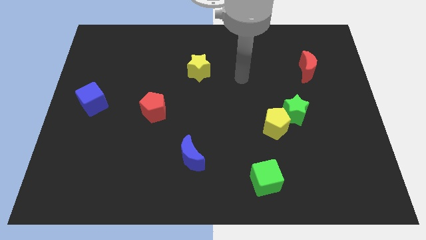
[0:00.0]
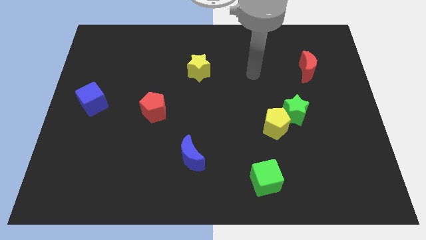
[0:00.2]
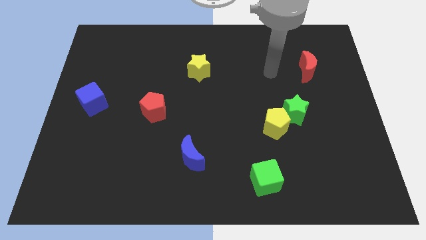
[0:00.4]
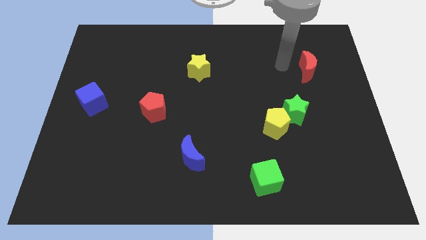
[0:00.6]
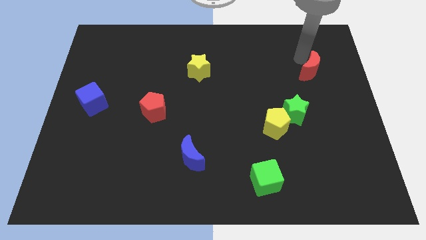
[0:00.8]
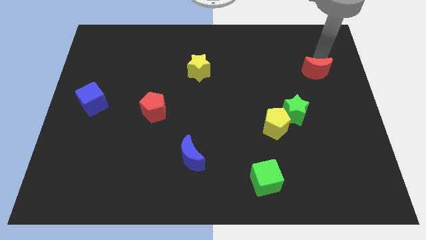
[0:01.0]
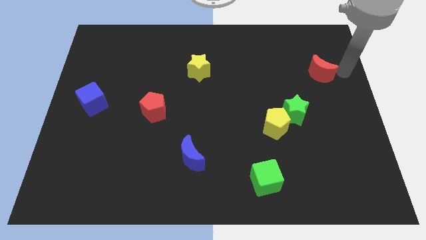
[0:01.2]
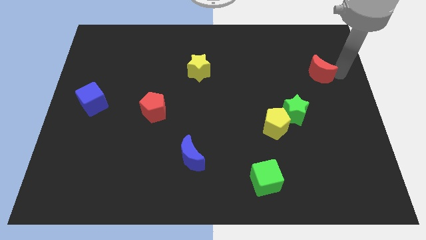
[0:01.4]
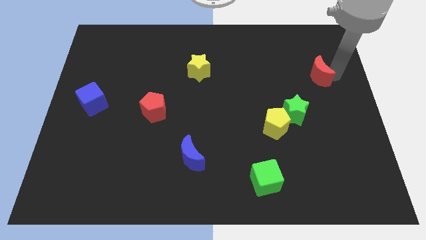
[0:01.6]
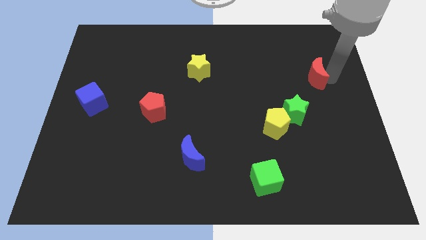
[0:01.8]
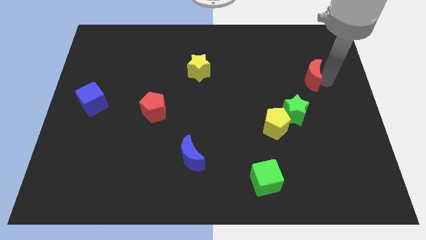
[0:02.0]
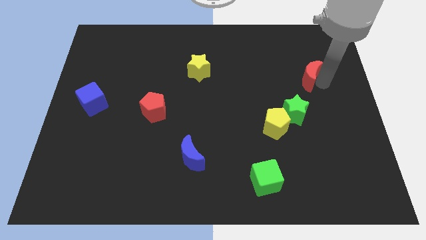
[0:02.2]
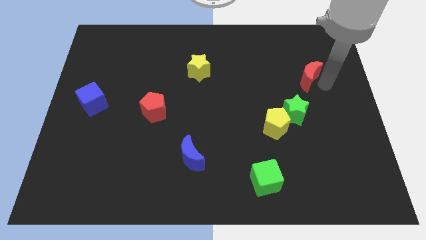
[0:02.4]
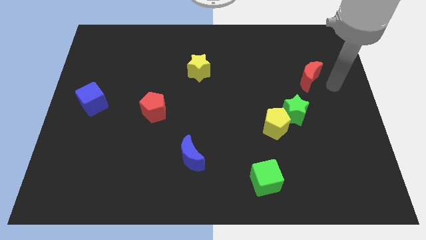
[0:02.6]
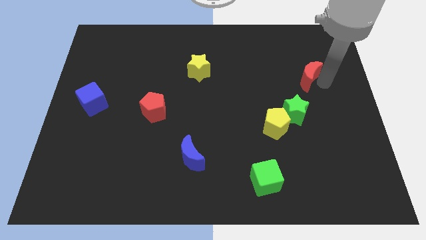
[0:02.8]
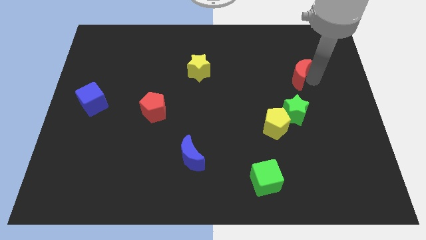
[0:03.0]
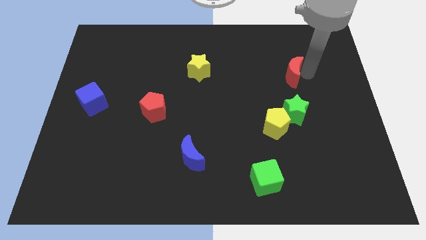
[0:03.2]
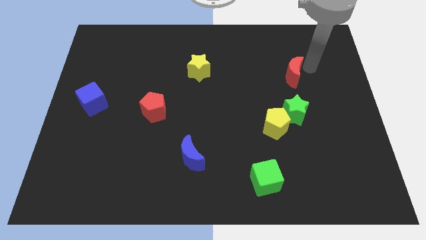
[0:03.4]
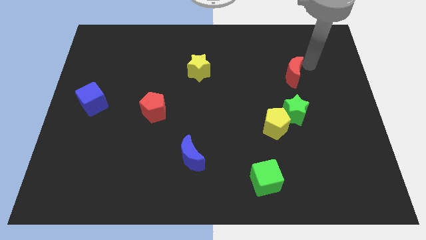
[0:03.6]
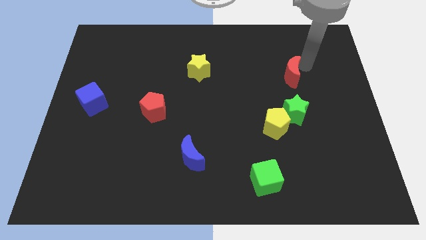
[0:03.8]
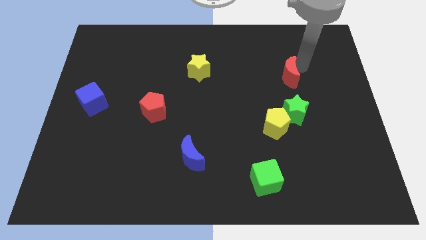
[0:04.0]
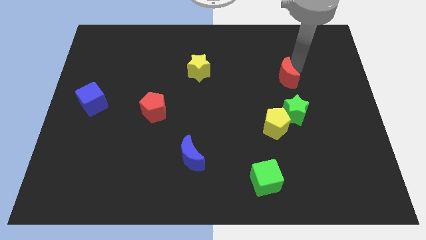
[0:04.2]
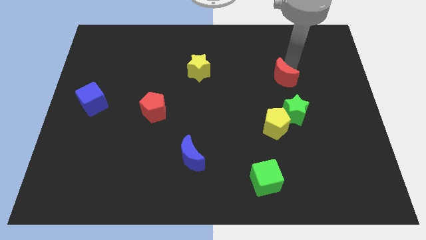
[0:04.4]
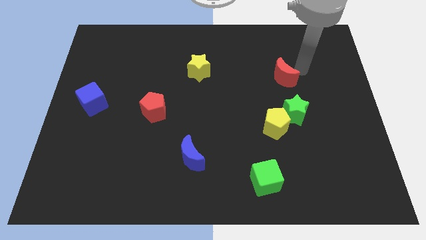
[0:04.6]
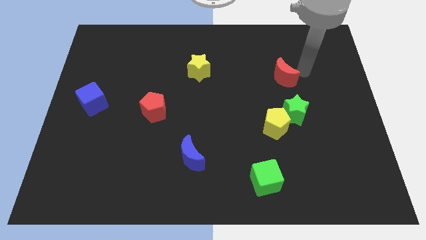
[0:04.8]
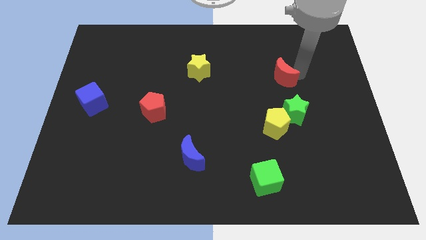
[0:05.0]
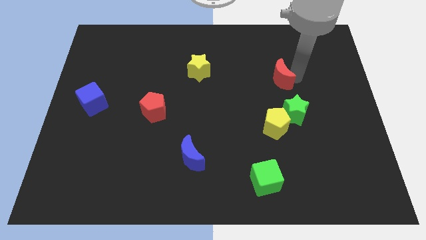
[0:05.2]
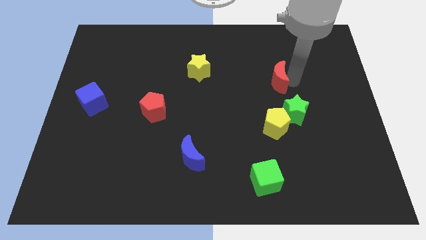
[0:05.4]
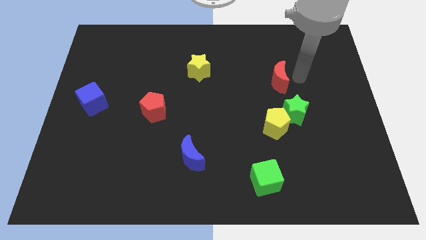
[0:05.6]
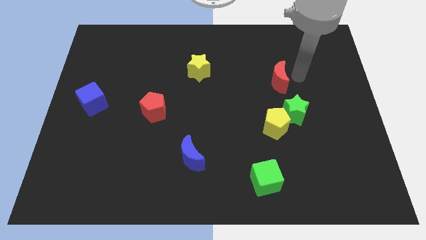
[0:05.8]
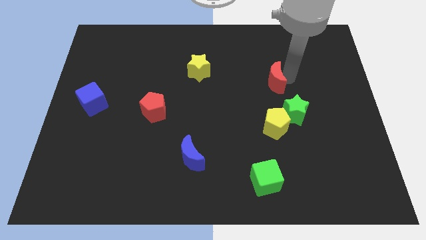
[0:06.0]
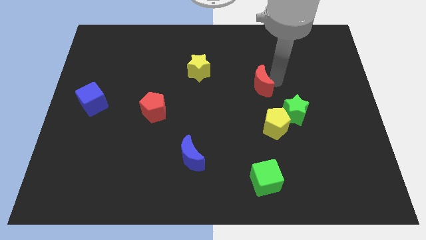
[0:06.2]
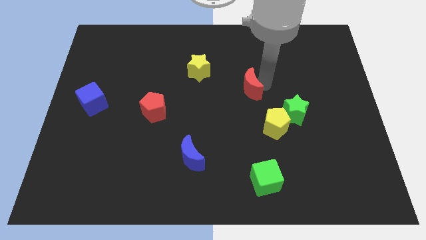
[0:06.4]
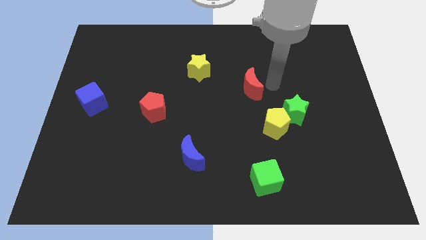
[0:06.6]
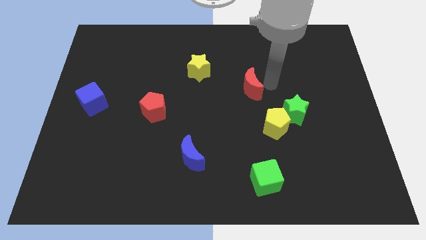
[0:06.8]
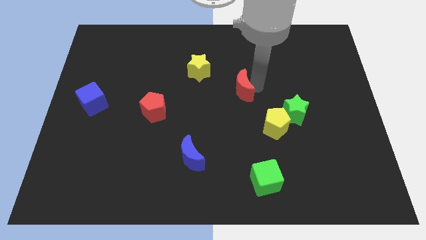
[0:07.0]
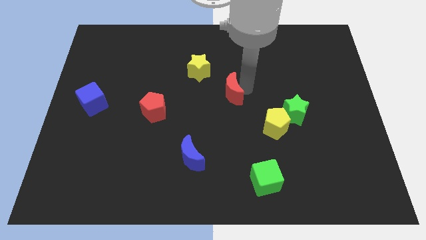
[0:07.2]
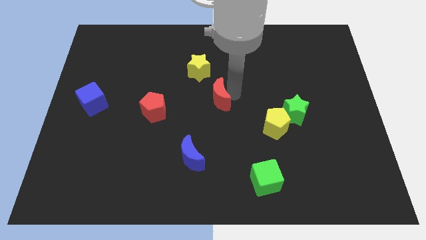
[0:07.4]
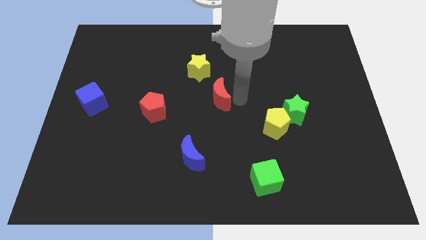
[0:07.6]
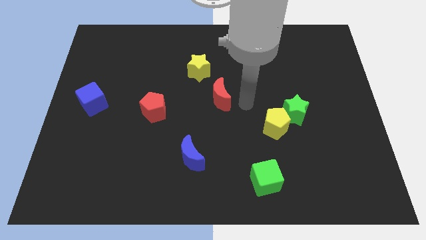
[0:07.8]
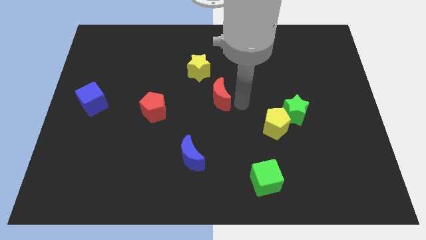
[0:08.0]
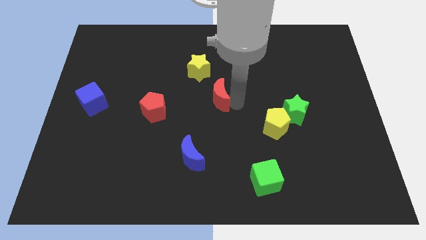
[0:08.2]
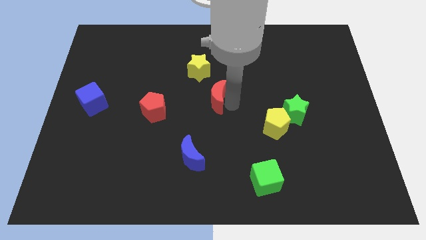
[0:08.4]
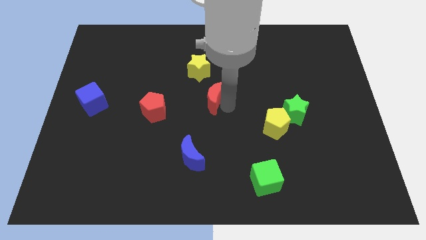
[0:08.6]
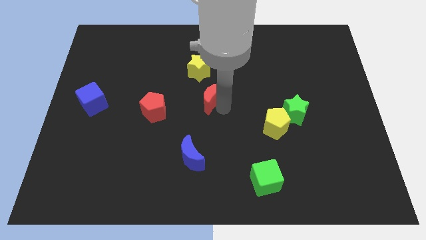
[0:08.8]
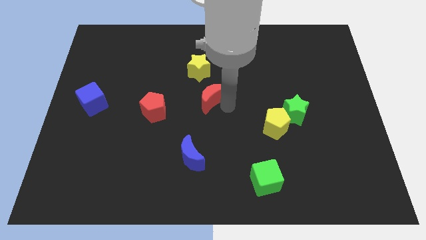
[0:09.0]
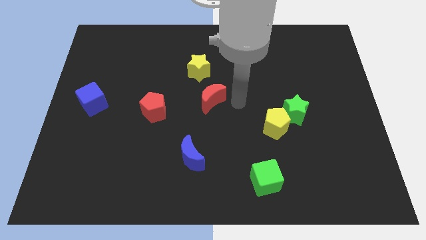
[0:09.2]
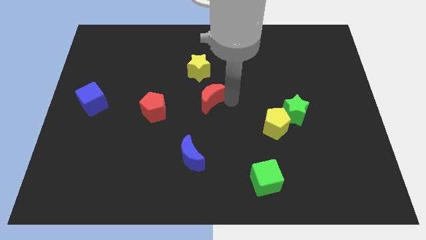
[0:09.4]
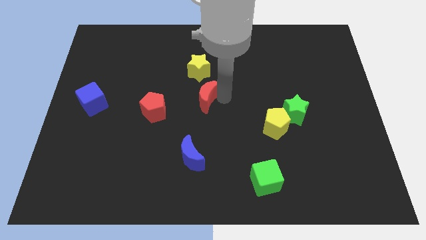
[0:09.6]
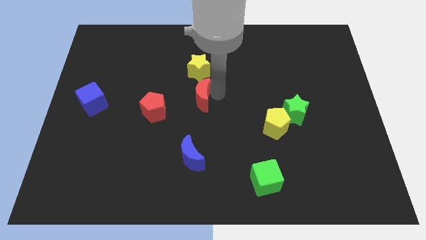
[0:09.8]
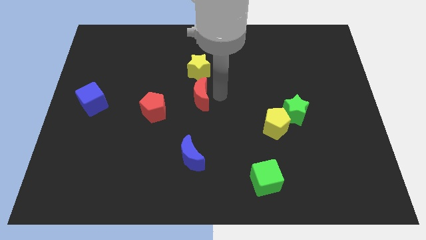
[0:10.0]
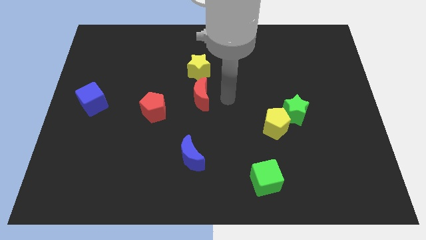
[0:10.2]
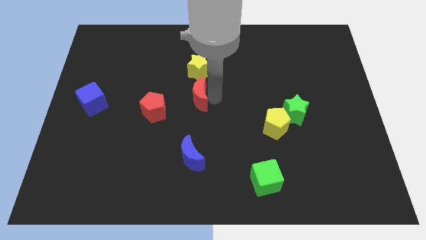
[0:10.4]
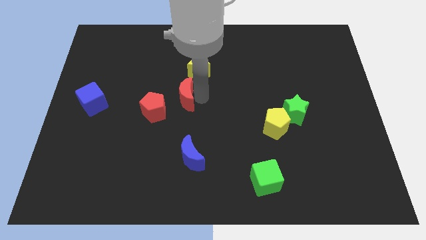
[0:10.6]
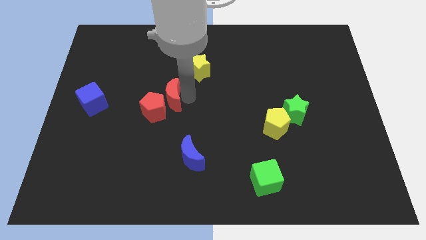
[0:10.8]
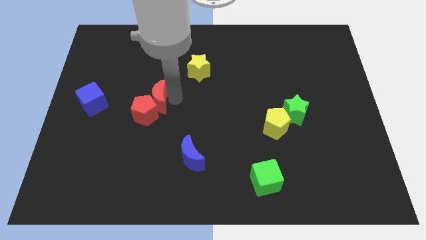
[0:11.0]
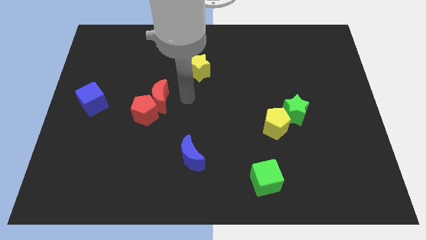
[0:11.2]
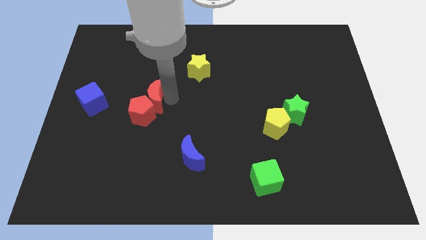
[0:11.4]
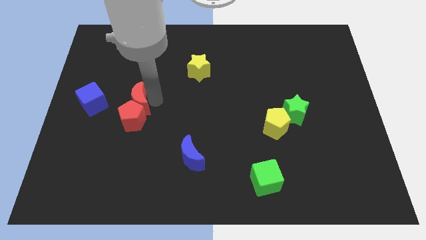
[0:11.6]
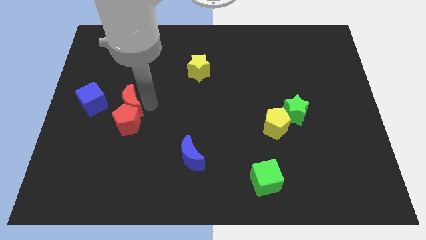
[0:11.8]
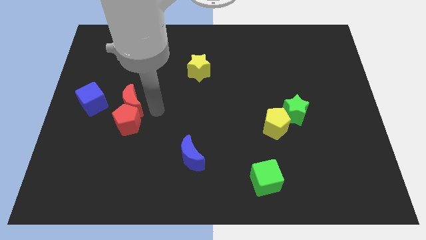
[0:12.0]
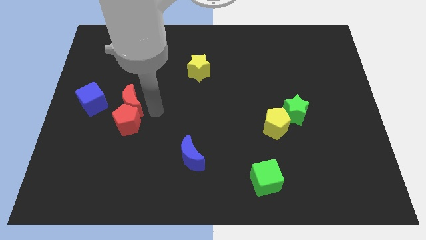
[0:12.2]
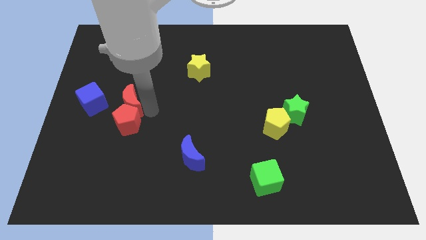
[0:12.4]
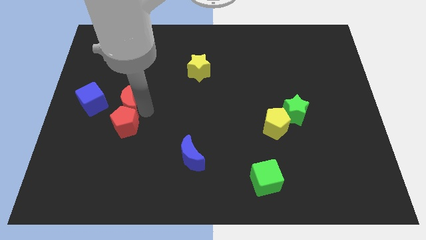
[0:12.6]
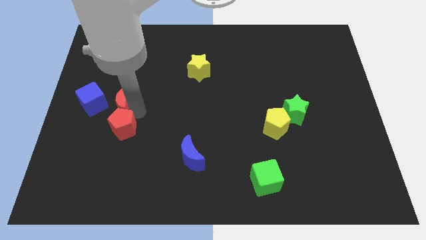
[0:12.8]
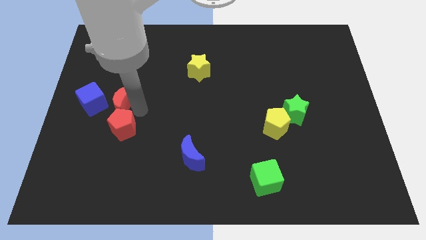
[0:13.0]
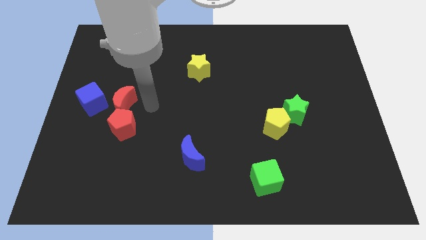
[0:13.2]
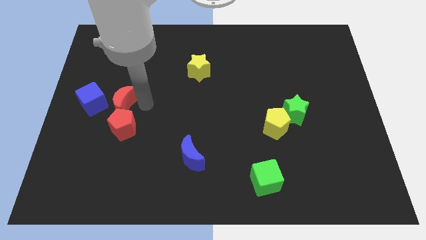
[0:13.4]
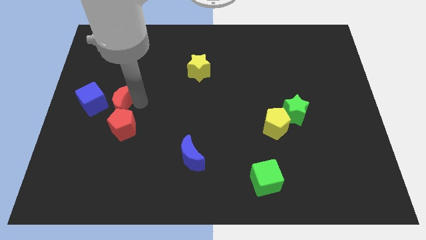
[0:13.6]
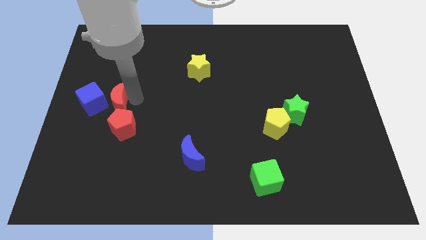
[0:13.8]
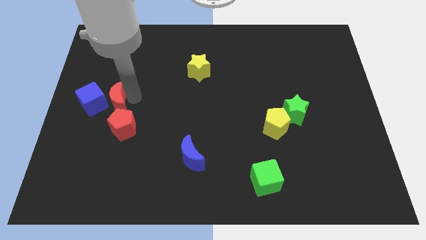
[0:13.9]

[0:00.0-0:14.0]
slide the red moon close to the blue cube
